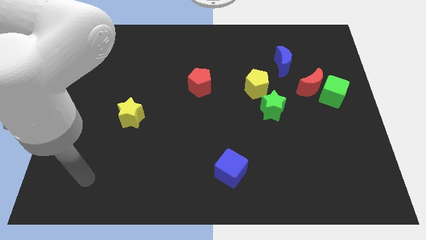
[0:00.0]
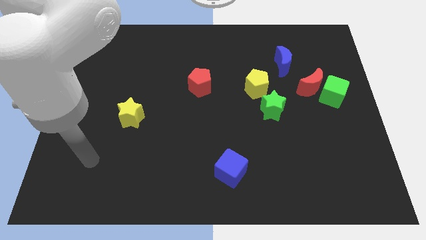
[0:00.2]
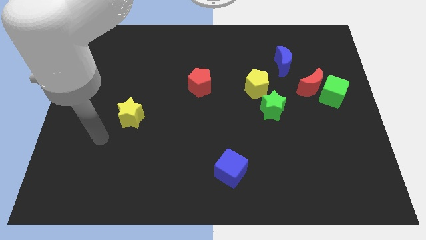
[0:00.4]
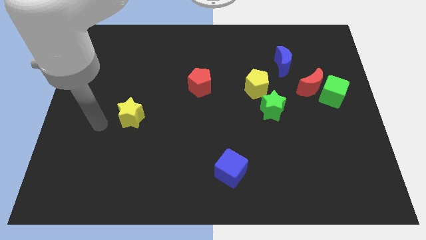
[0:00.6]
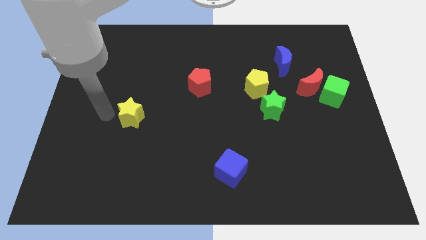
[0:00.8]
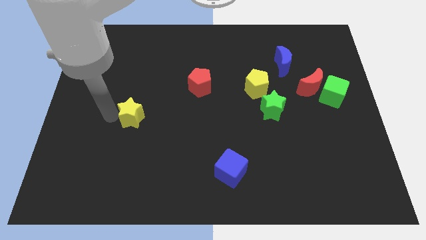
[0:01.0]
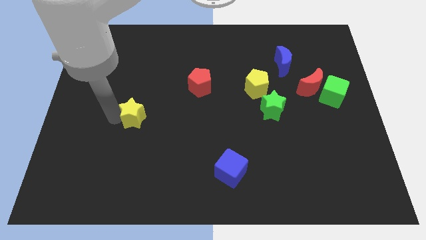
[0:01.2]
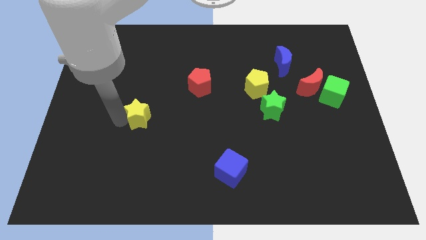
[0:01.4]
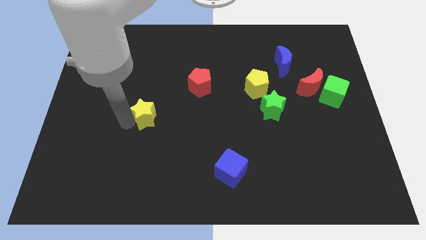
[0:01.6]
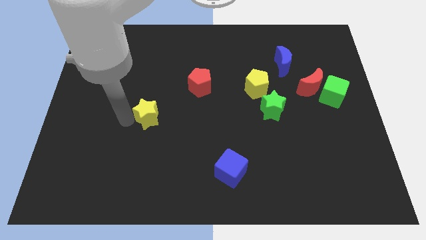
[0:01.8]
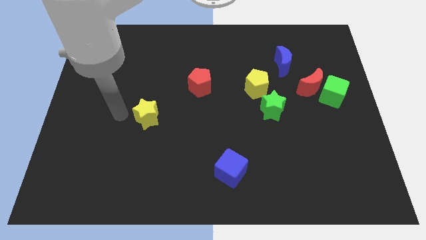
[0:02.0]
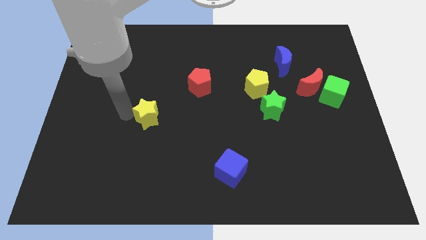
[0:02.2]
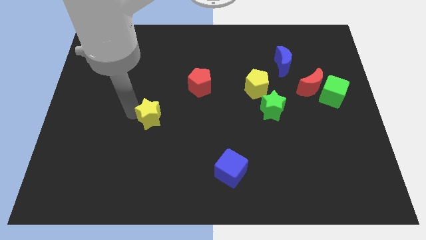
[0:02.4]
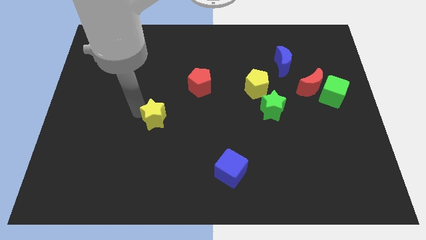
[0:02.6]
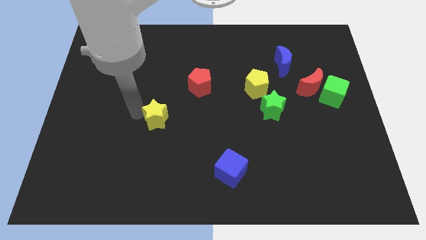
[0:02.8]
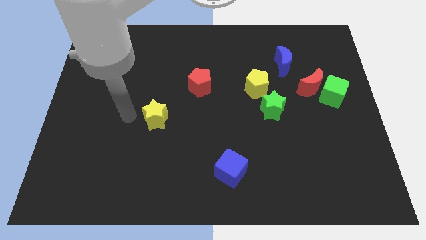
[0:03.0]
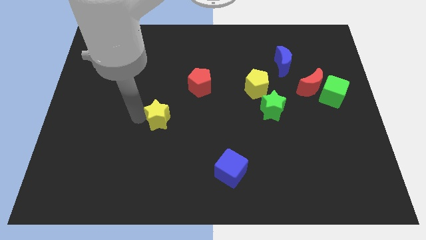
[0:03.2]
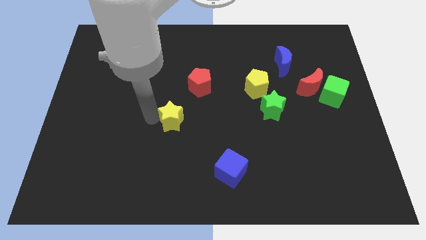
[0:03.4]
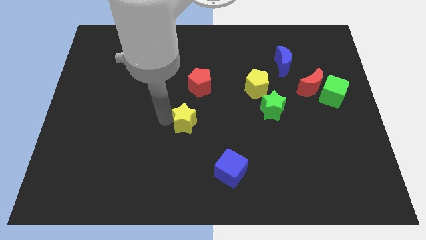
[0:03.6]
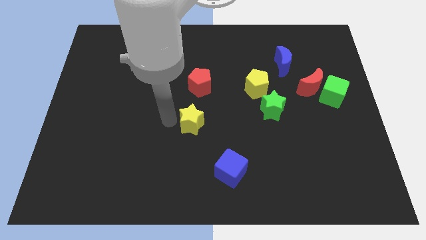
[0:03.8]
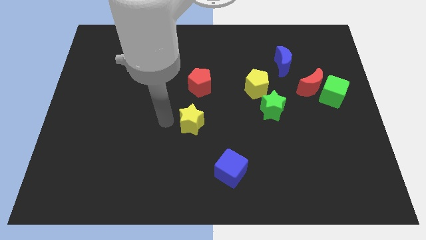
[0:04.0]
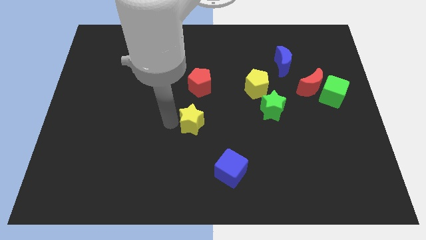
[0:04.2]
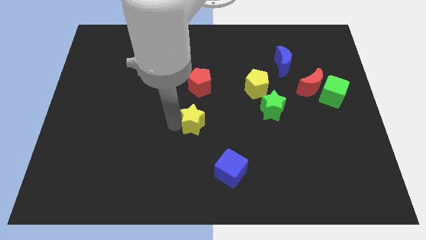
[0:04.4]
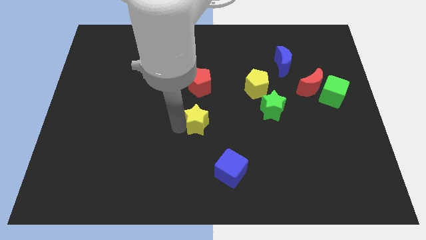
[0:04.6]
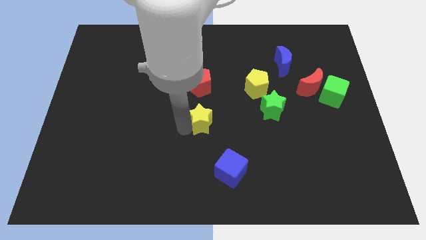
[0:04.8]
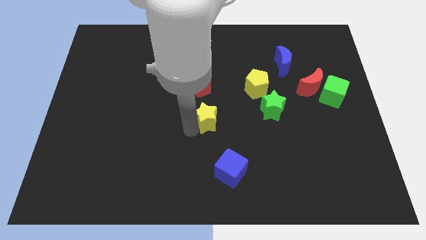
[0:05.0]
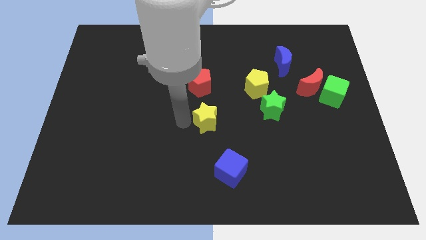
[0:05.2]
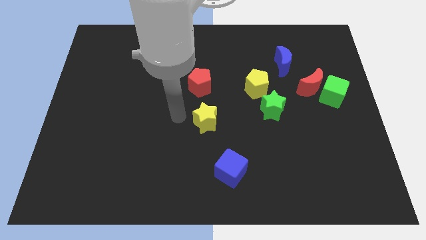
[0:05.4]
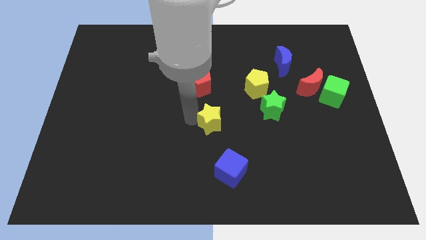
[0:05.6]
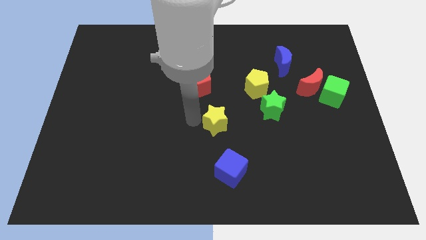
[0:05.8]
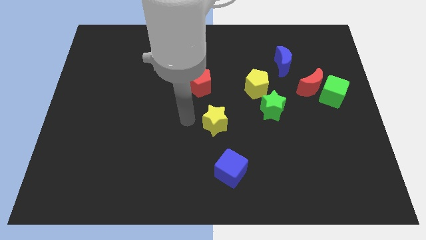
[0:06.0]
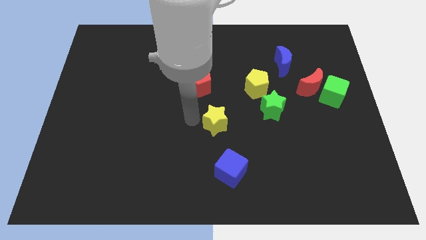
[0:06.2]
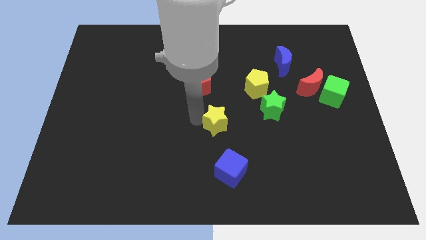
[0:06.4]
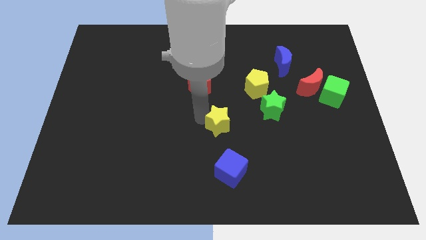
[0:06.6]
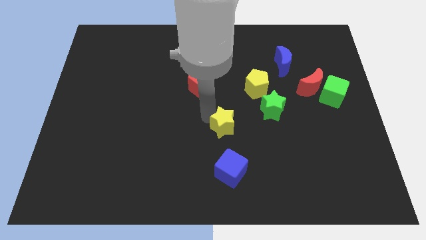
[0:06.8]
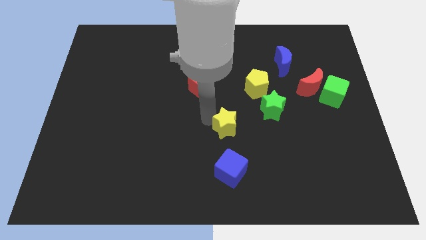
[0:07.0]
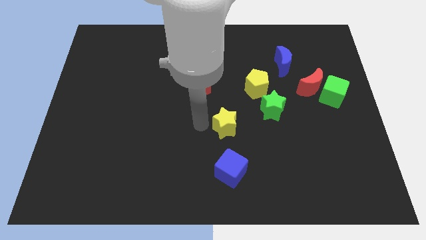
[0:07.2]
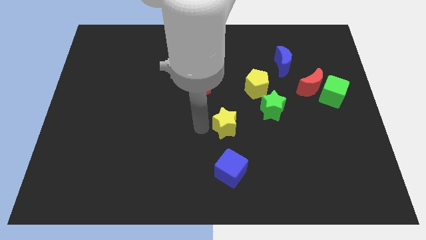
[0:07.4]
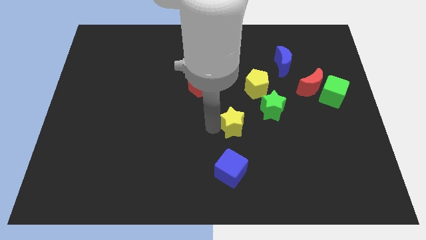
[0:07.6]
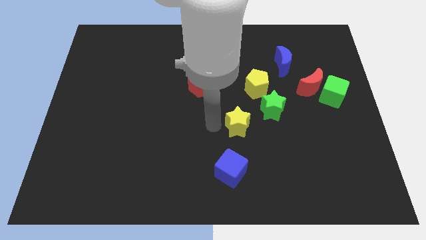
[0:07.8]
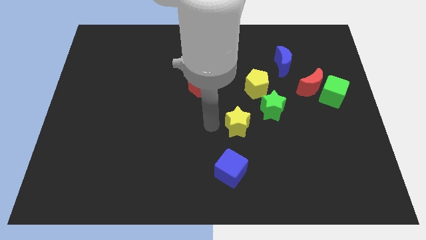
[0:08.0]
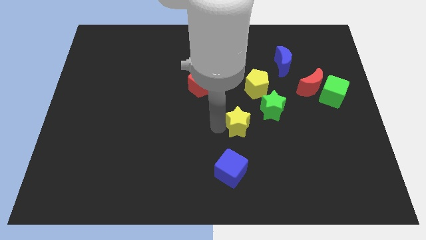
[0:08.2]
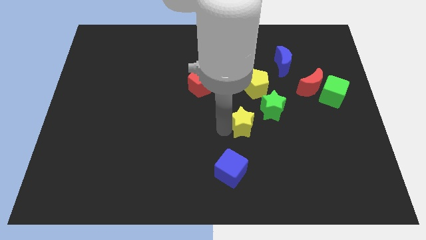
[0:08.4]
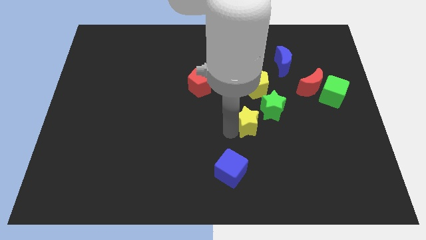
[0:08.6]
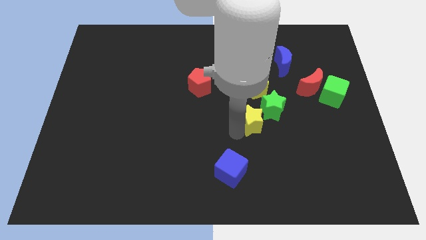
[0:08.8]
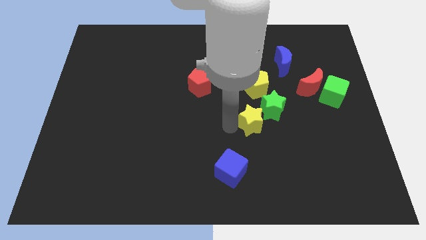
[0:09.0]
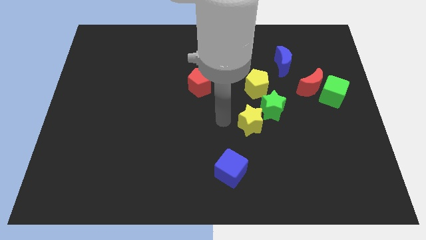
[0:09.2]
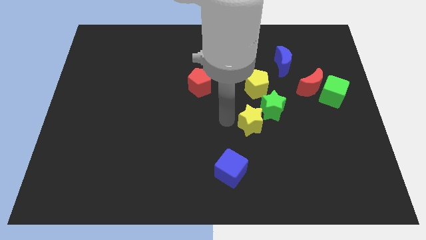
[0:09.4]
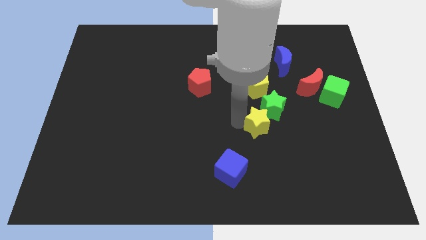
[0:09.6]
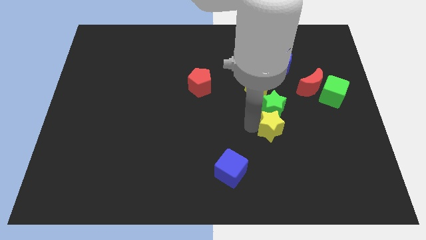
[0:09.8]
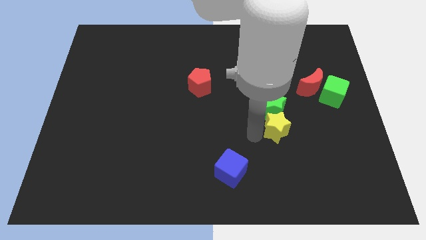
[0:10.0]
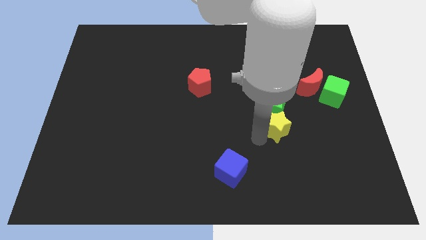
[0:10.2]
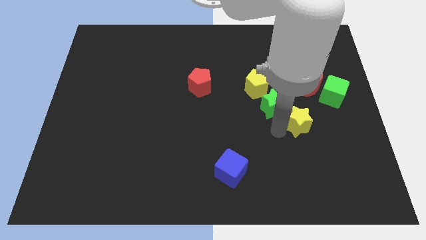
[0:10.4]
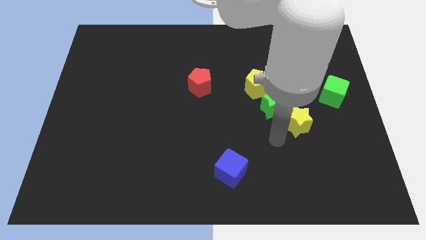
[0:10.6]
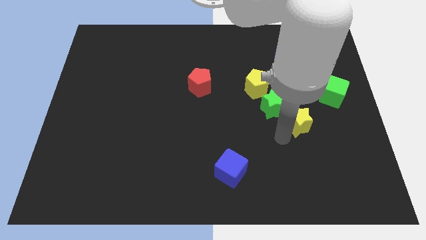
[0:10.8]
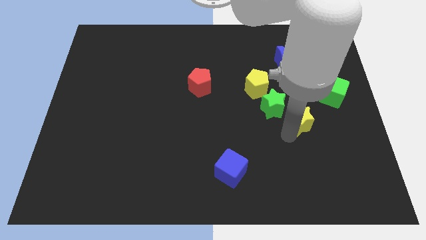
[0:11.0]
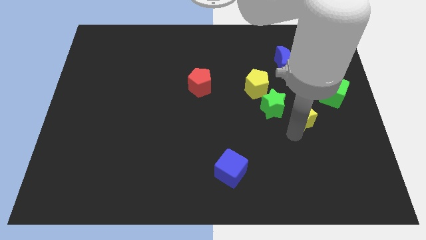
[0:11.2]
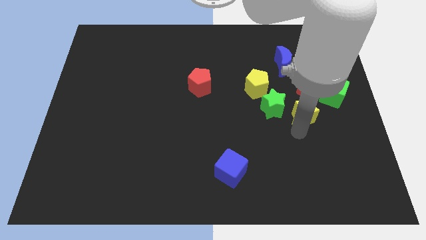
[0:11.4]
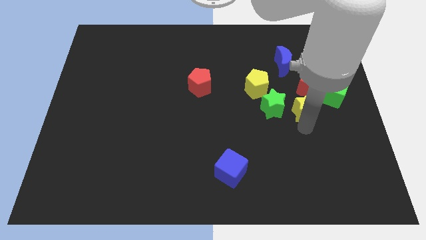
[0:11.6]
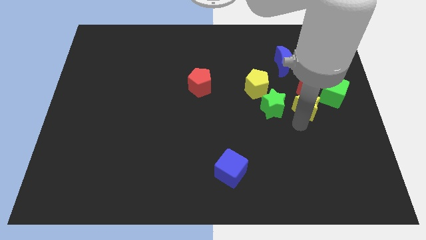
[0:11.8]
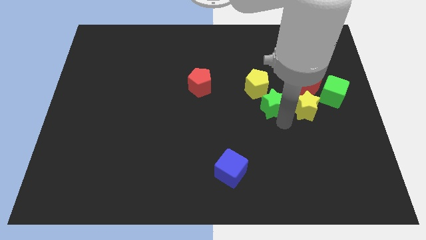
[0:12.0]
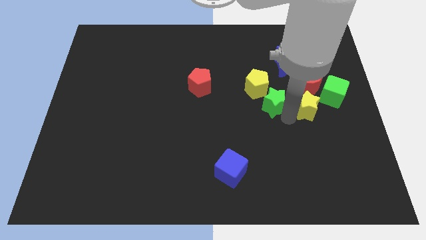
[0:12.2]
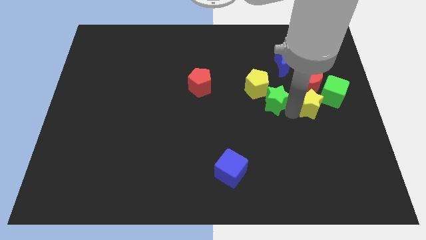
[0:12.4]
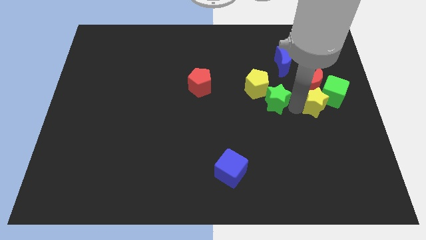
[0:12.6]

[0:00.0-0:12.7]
put the yellow star close to the green cube
